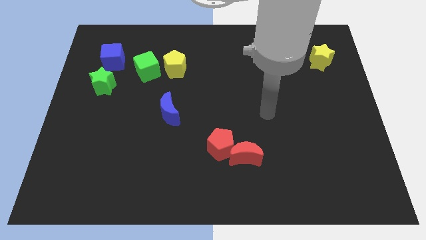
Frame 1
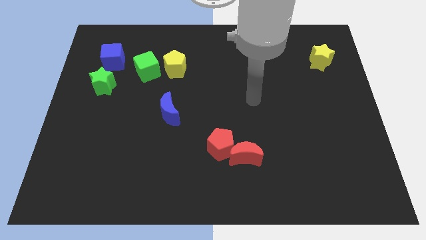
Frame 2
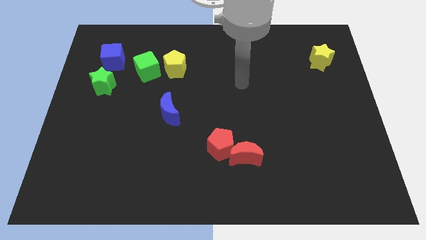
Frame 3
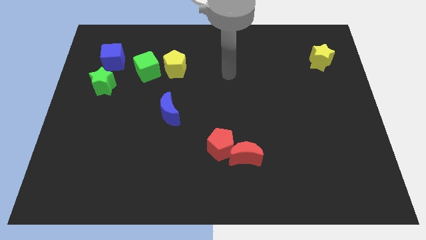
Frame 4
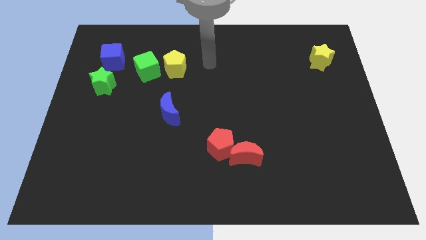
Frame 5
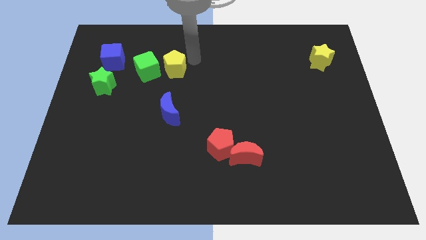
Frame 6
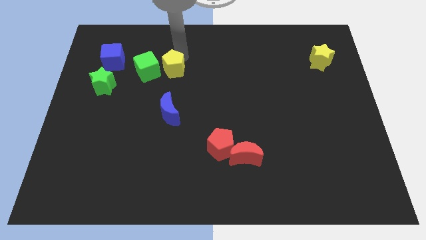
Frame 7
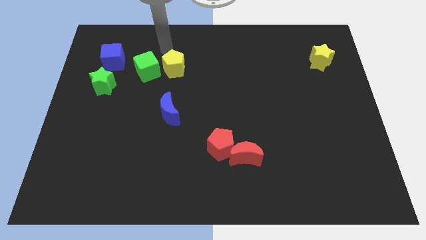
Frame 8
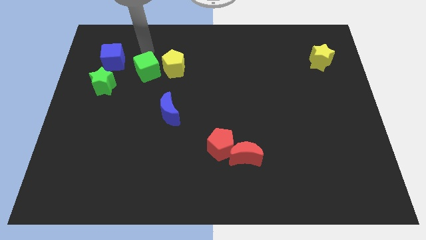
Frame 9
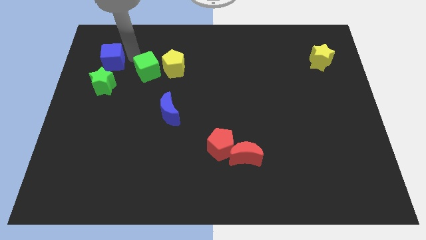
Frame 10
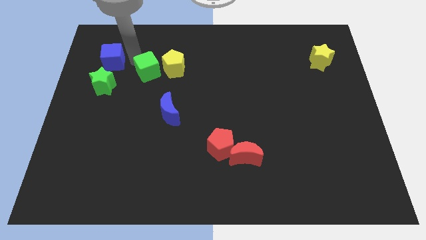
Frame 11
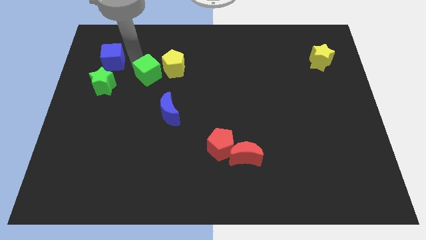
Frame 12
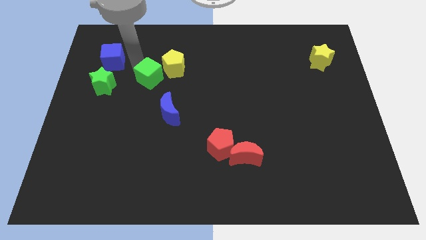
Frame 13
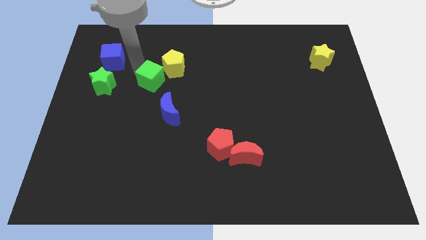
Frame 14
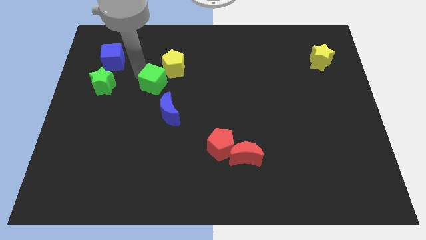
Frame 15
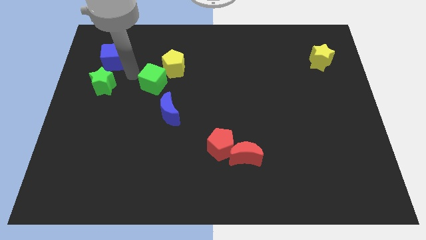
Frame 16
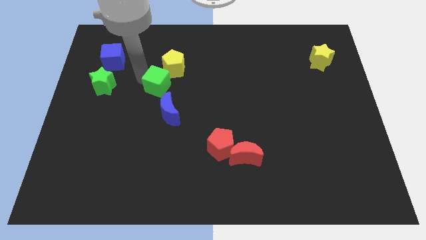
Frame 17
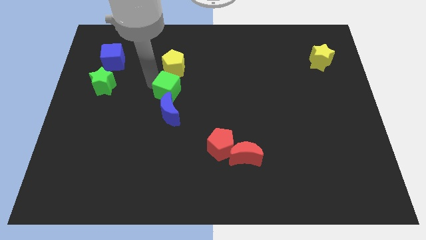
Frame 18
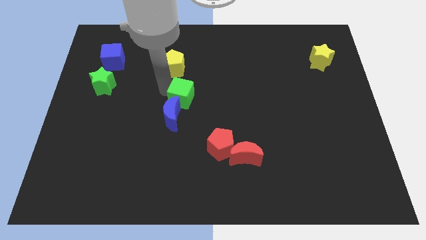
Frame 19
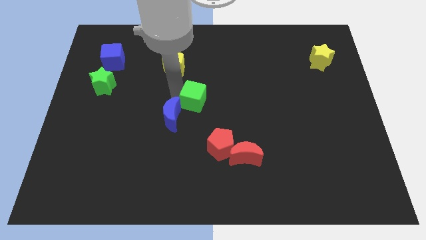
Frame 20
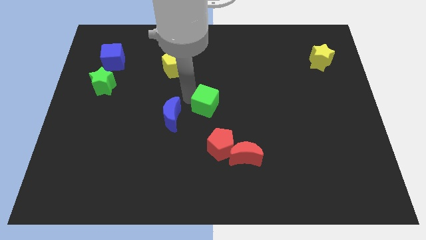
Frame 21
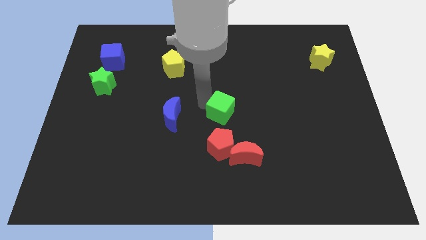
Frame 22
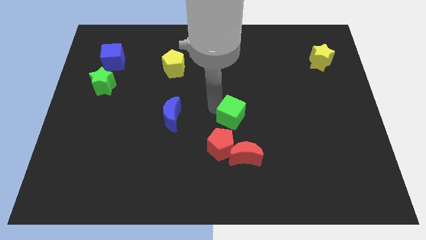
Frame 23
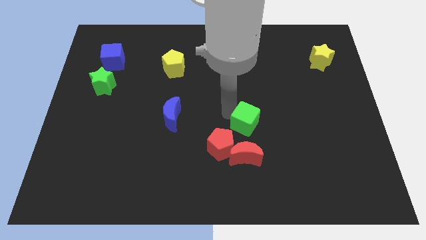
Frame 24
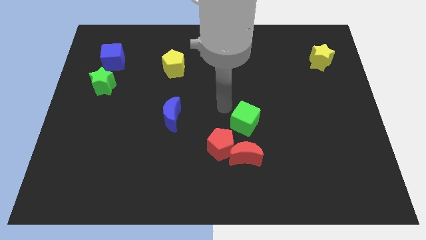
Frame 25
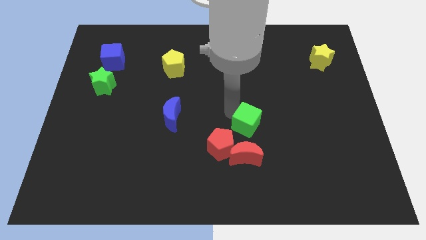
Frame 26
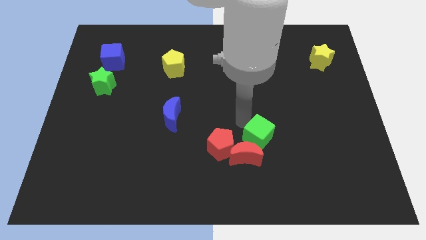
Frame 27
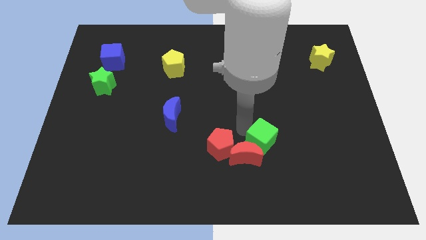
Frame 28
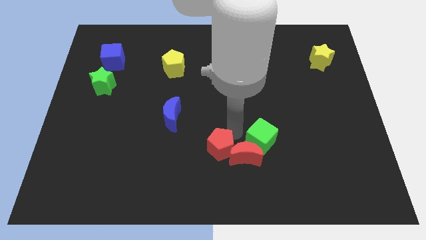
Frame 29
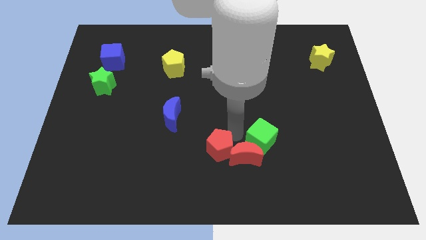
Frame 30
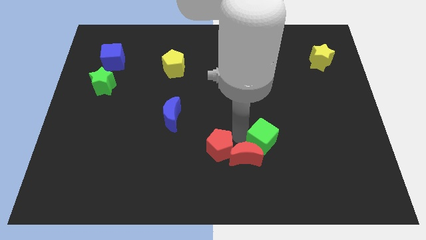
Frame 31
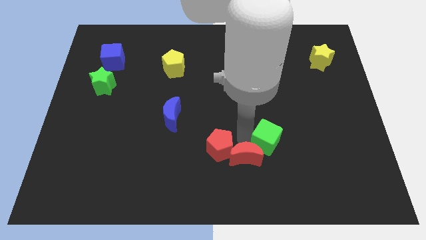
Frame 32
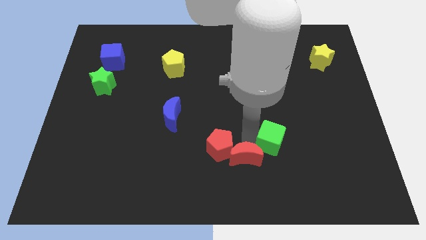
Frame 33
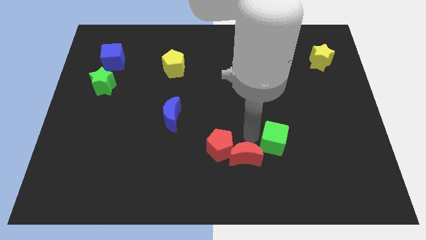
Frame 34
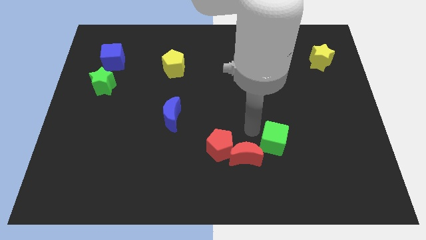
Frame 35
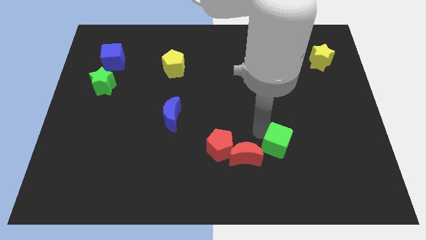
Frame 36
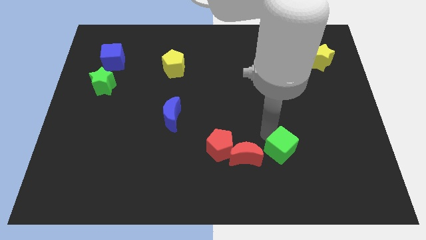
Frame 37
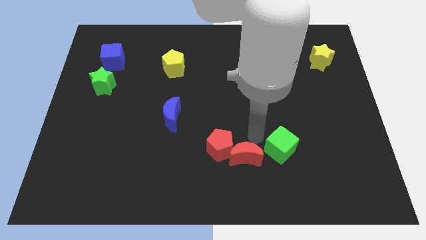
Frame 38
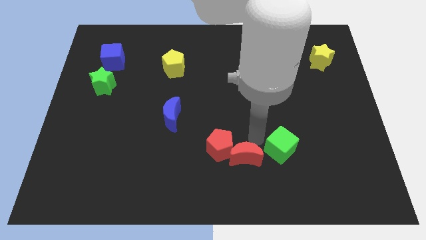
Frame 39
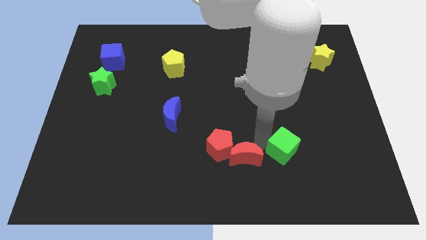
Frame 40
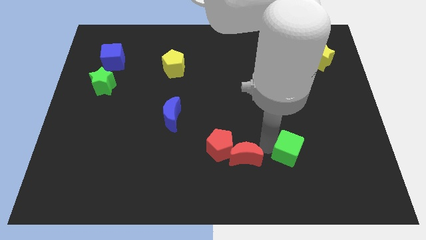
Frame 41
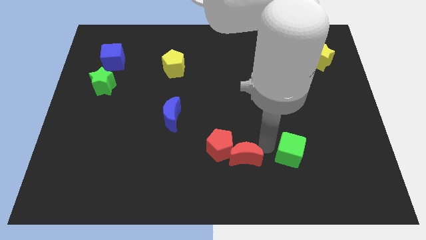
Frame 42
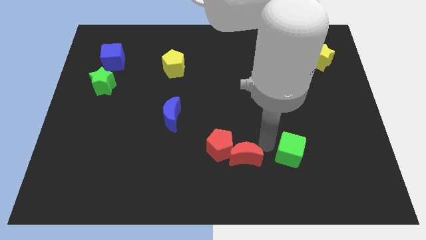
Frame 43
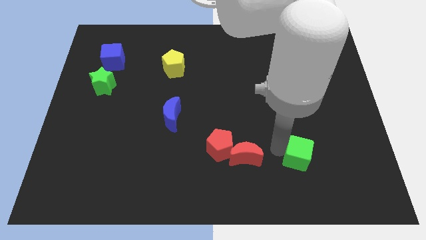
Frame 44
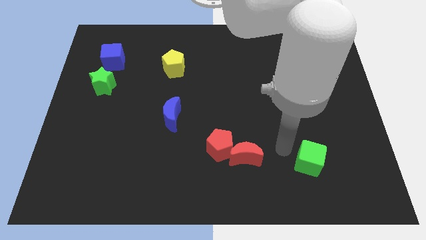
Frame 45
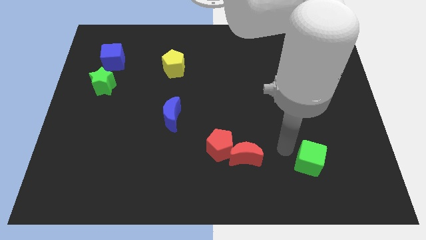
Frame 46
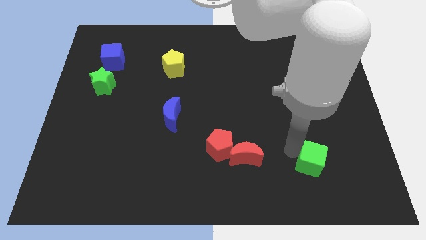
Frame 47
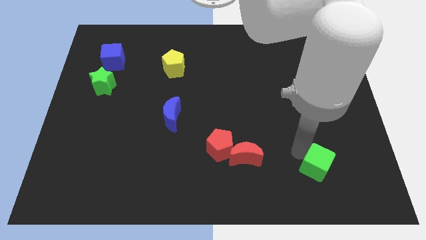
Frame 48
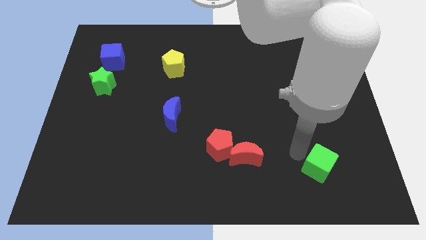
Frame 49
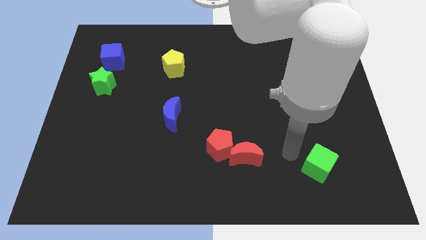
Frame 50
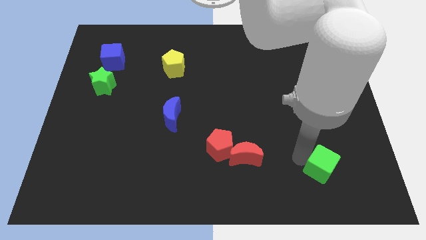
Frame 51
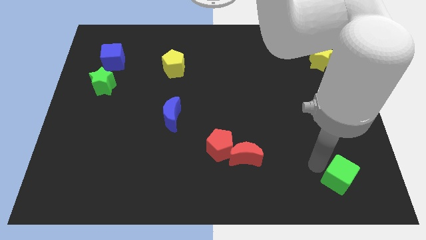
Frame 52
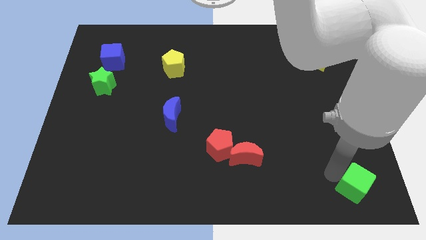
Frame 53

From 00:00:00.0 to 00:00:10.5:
push the green cube to the lower right corner

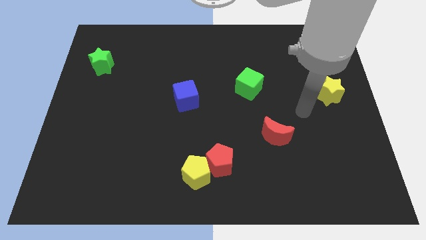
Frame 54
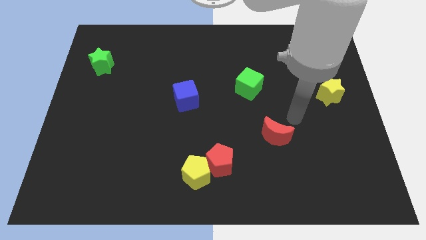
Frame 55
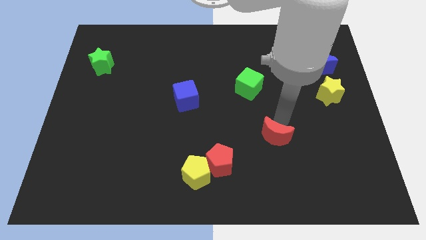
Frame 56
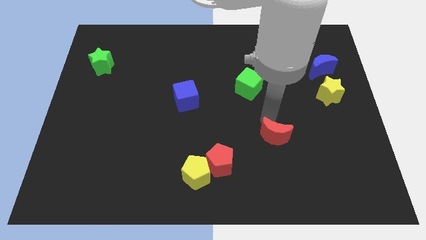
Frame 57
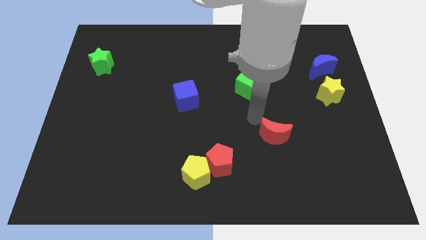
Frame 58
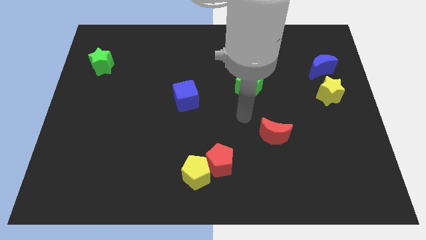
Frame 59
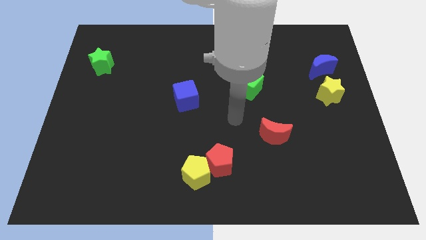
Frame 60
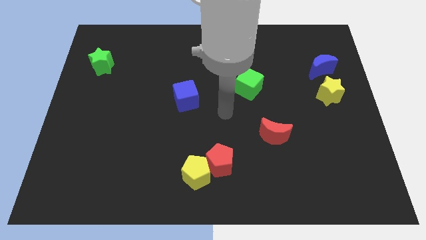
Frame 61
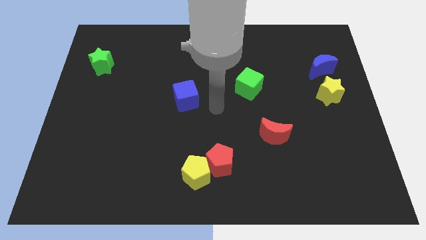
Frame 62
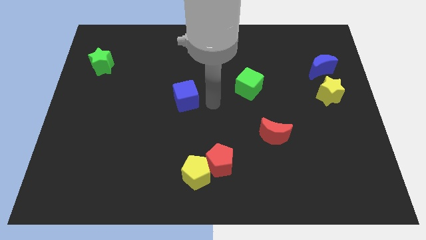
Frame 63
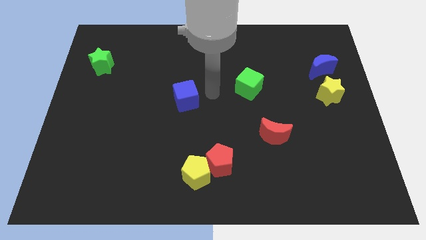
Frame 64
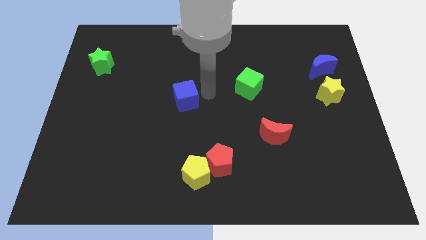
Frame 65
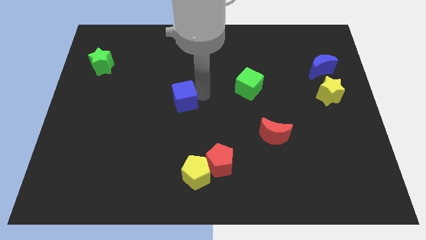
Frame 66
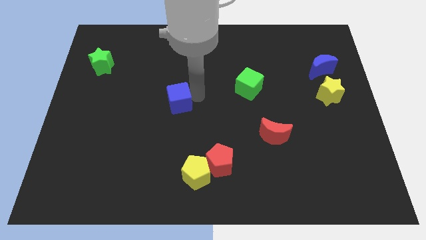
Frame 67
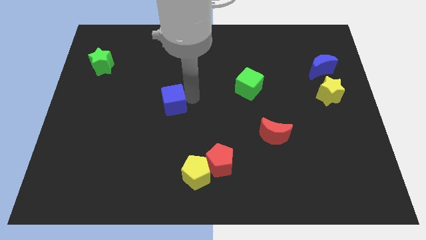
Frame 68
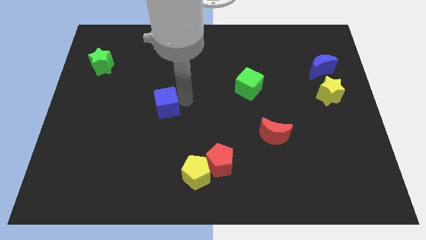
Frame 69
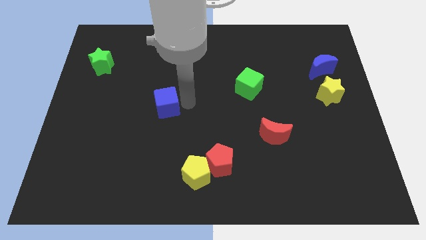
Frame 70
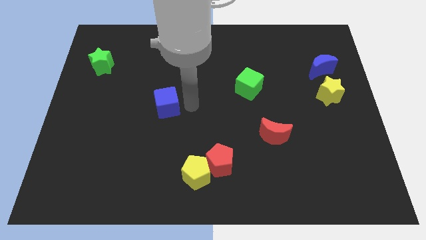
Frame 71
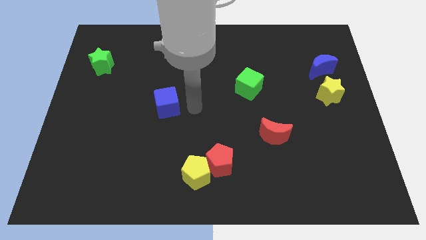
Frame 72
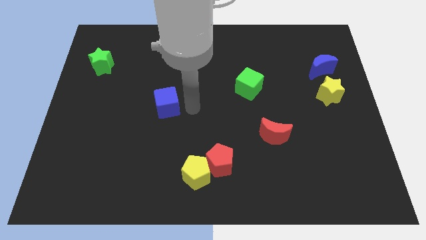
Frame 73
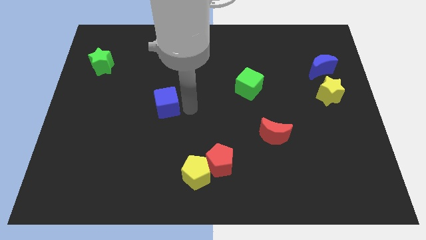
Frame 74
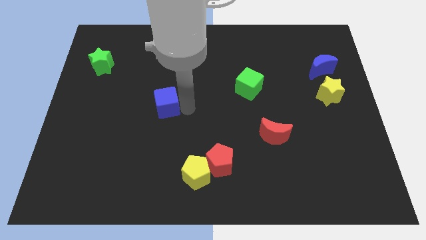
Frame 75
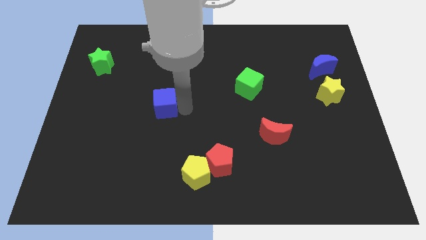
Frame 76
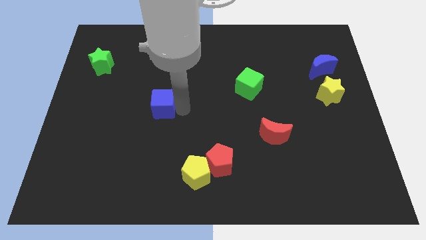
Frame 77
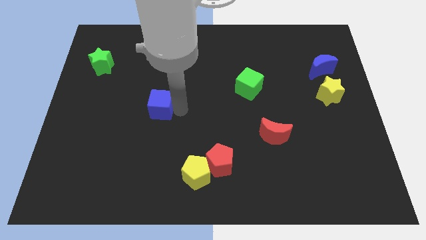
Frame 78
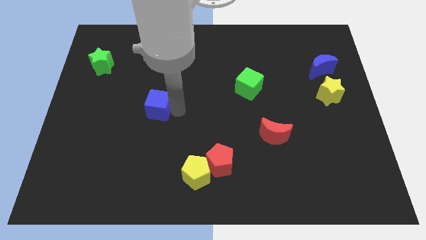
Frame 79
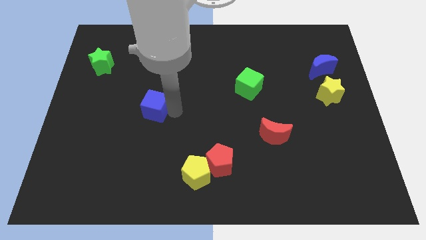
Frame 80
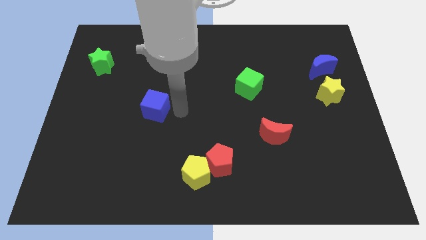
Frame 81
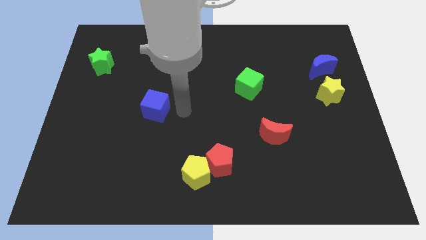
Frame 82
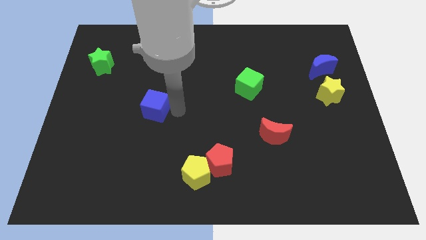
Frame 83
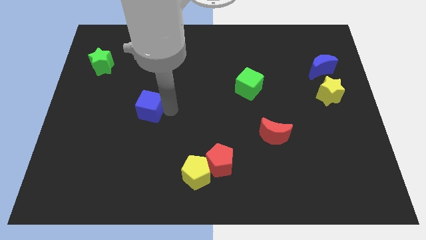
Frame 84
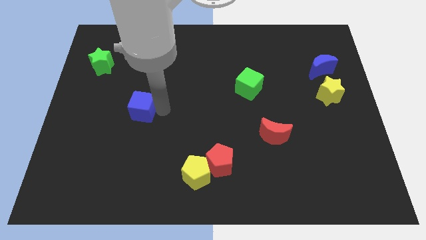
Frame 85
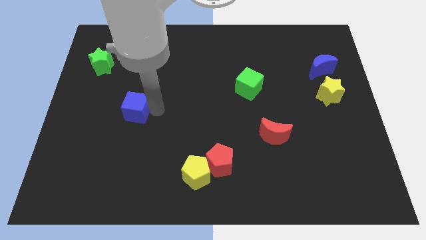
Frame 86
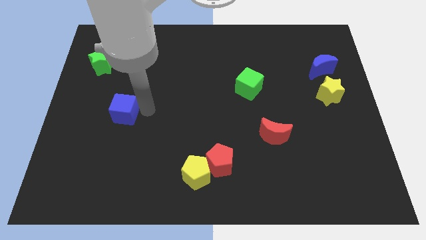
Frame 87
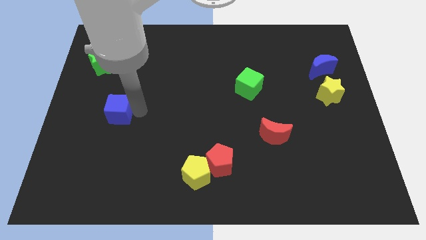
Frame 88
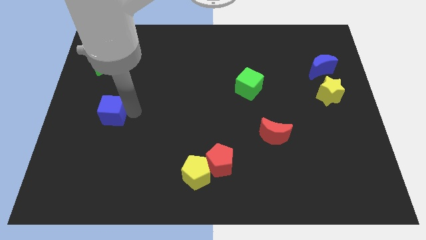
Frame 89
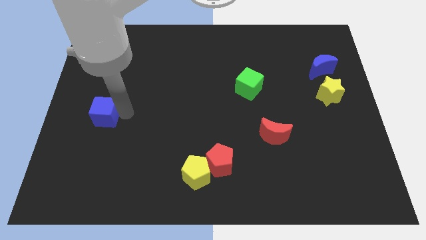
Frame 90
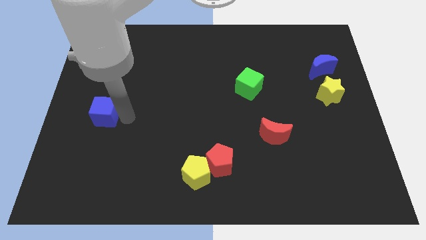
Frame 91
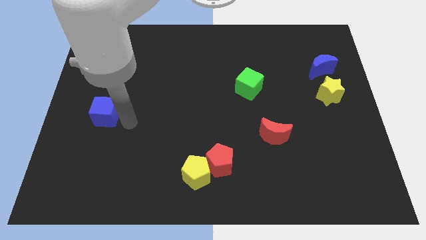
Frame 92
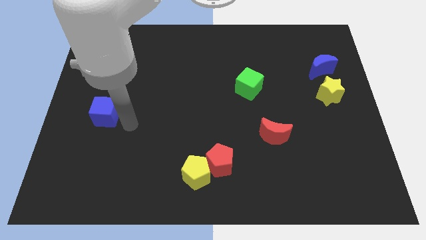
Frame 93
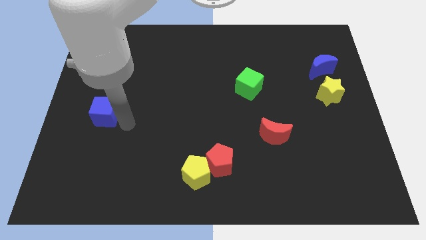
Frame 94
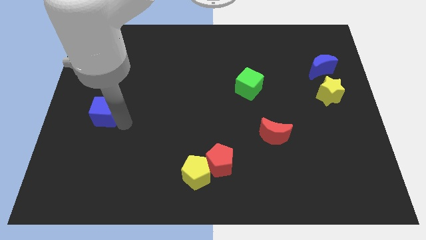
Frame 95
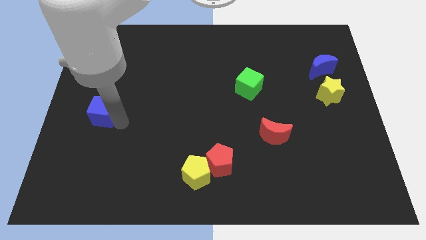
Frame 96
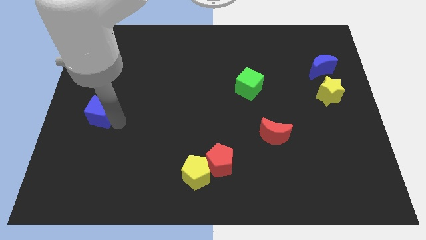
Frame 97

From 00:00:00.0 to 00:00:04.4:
slide the blue cube to the left side of the board
